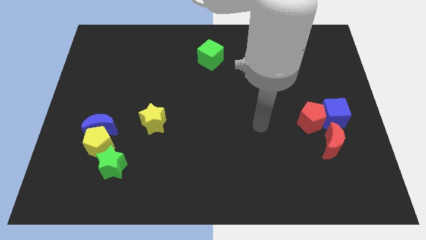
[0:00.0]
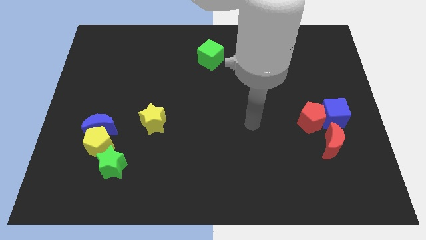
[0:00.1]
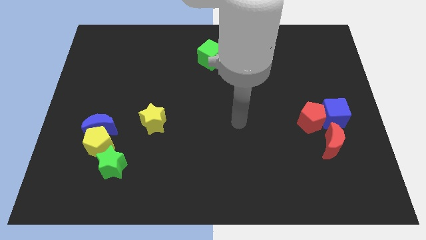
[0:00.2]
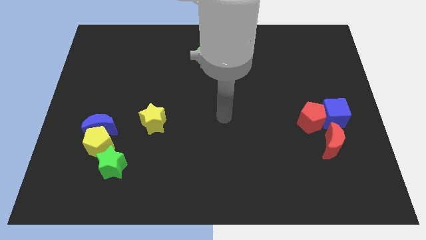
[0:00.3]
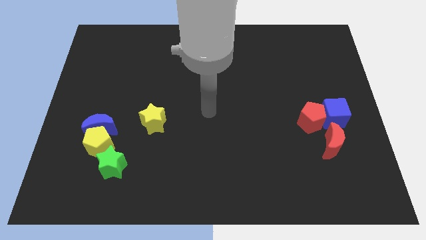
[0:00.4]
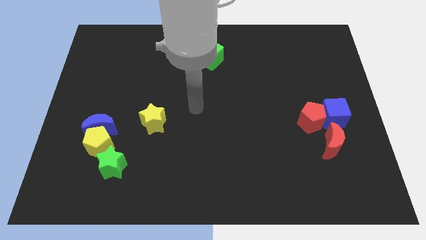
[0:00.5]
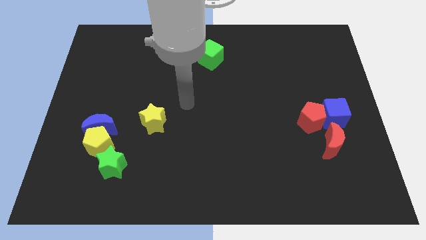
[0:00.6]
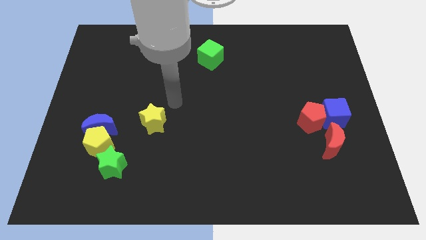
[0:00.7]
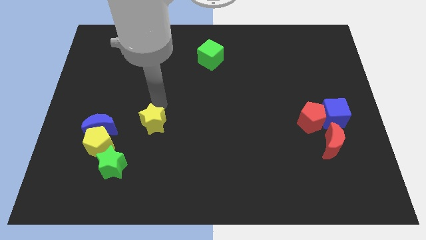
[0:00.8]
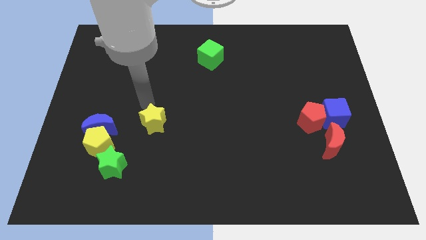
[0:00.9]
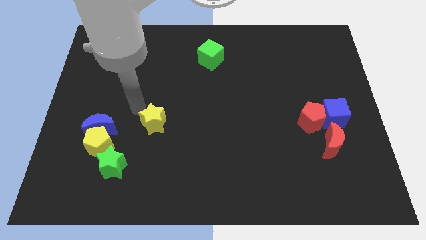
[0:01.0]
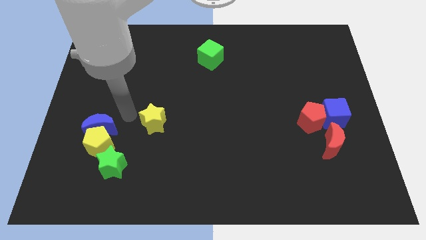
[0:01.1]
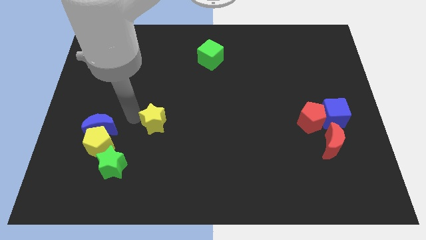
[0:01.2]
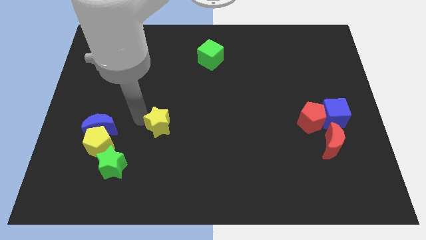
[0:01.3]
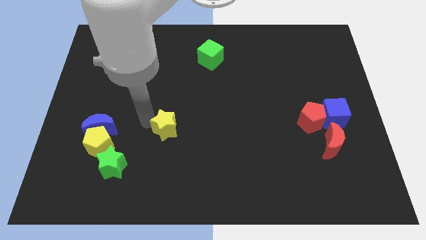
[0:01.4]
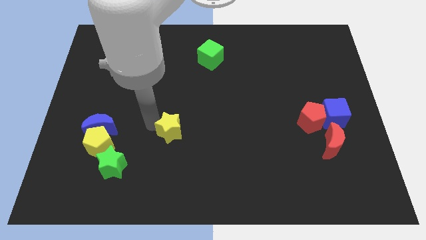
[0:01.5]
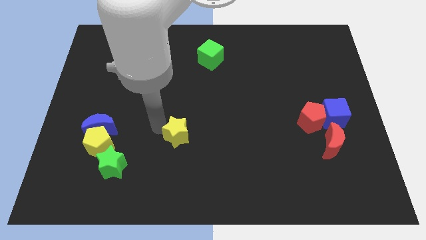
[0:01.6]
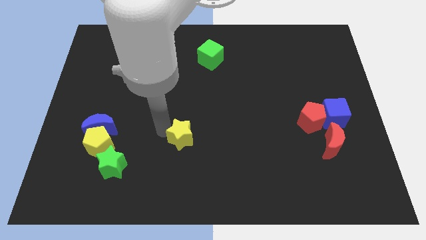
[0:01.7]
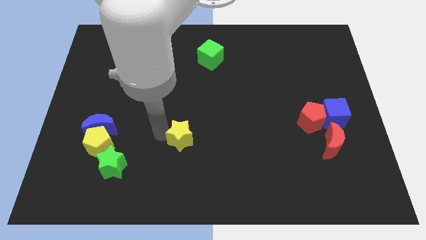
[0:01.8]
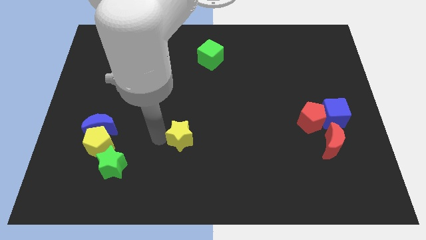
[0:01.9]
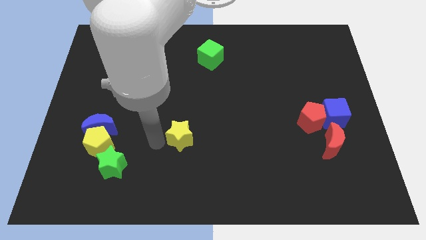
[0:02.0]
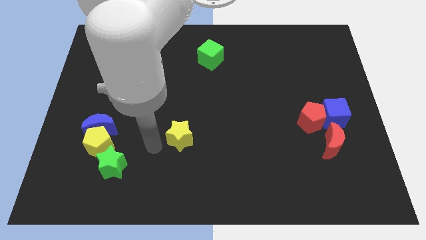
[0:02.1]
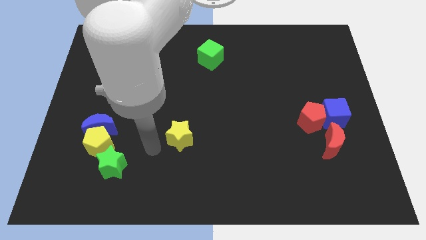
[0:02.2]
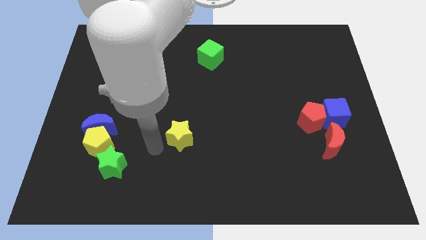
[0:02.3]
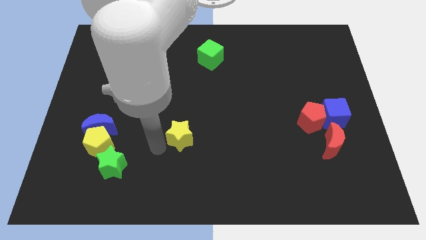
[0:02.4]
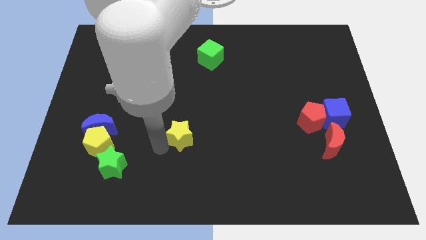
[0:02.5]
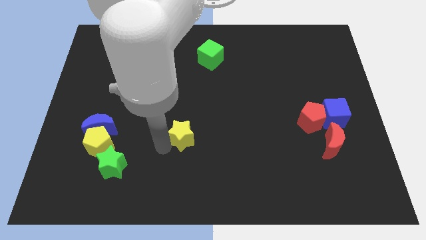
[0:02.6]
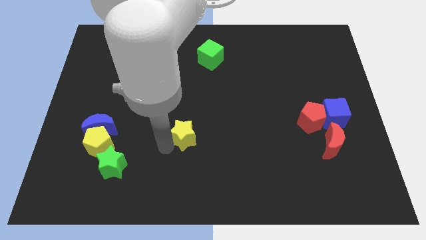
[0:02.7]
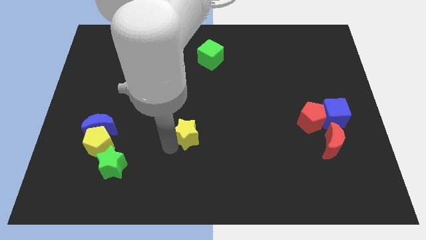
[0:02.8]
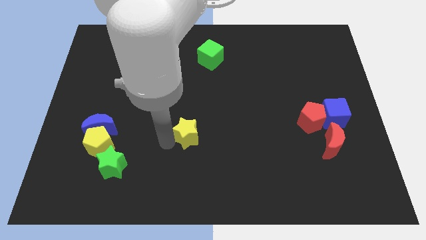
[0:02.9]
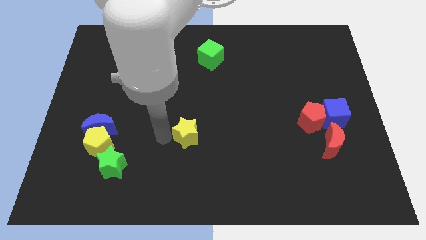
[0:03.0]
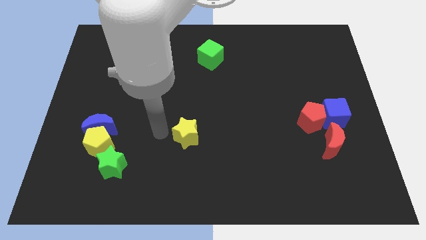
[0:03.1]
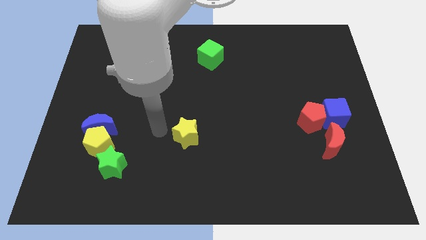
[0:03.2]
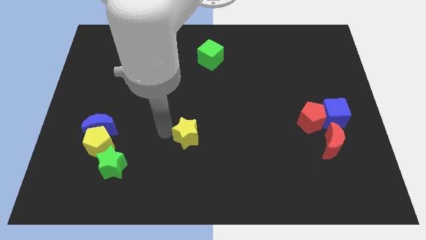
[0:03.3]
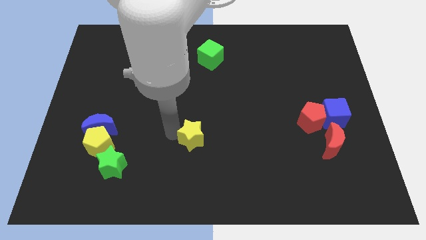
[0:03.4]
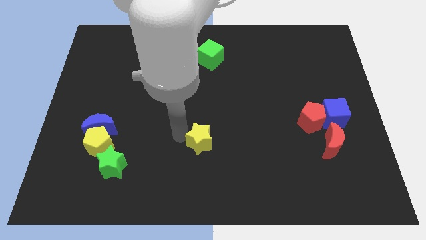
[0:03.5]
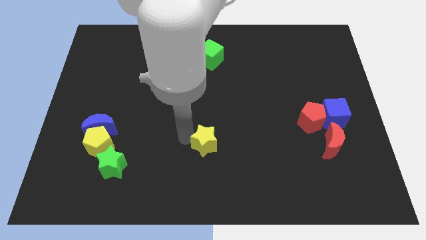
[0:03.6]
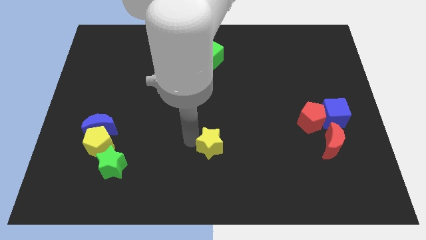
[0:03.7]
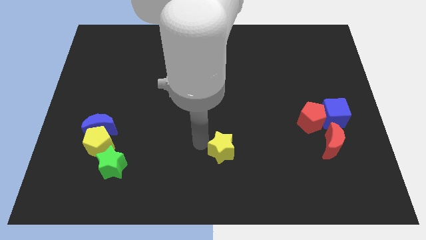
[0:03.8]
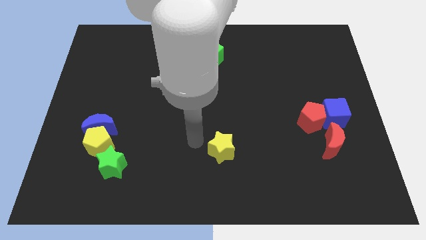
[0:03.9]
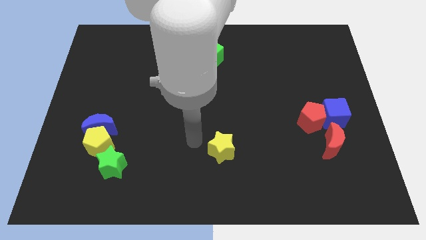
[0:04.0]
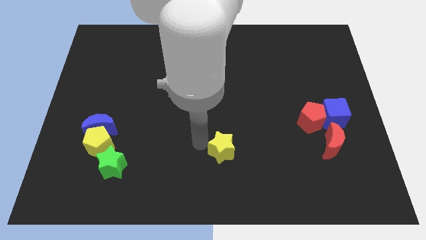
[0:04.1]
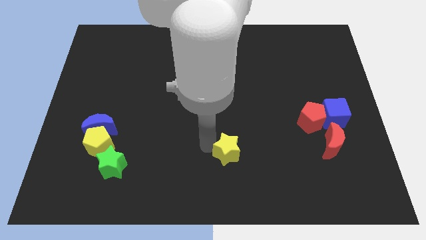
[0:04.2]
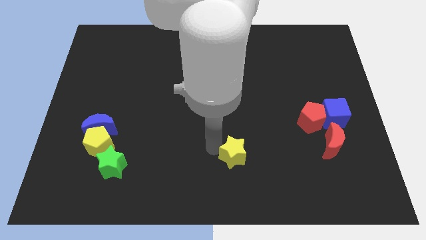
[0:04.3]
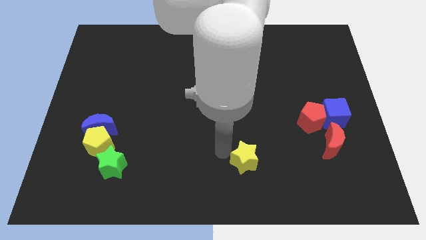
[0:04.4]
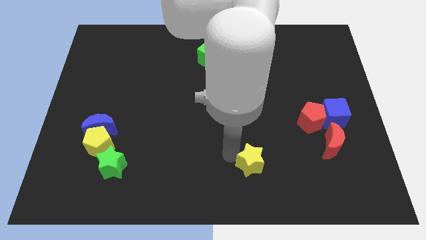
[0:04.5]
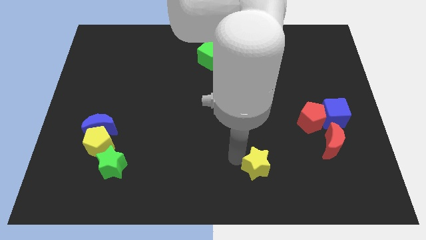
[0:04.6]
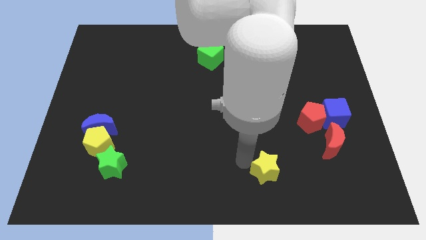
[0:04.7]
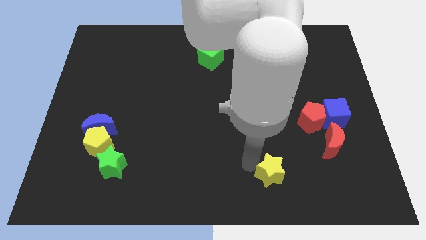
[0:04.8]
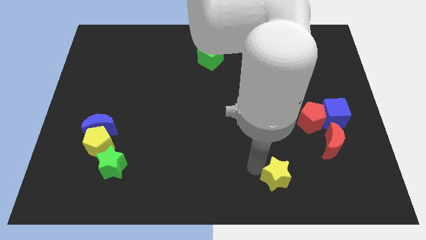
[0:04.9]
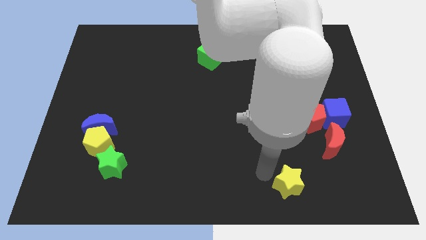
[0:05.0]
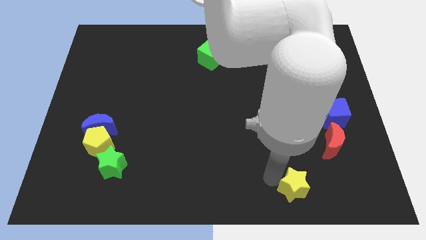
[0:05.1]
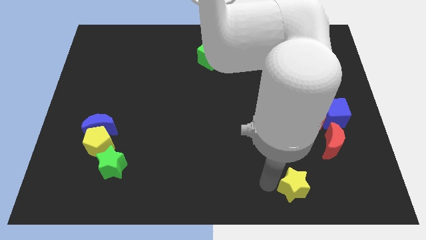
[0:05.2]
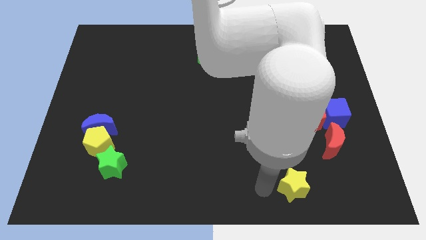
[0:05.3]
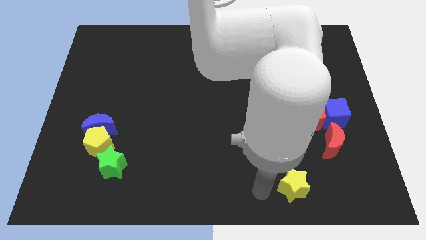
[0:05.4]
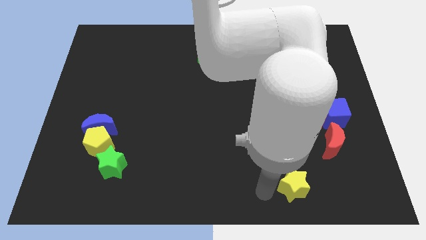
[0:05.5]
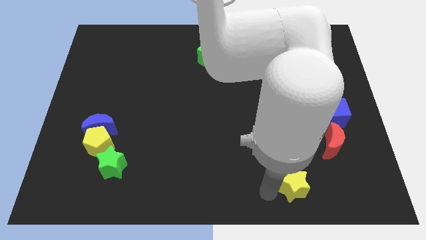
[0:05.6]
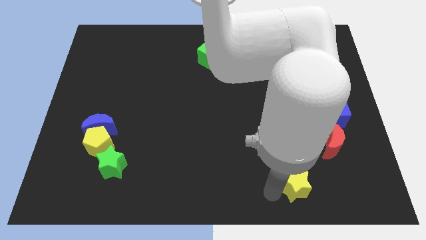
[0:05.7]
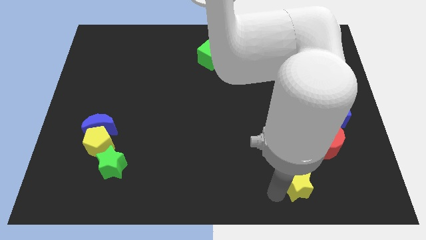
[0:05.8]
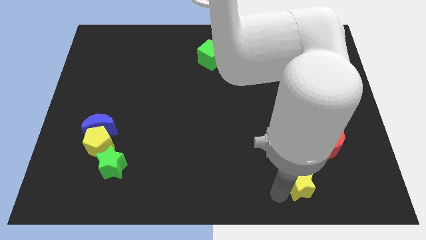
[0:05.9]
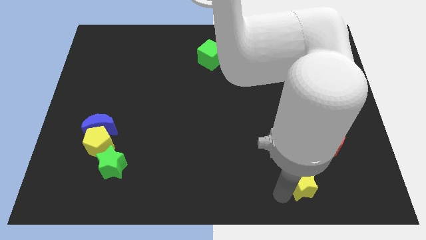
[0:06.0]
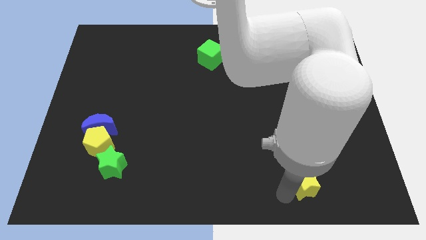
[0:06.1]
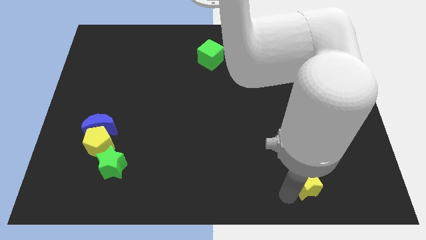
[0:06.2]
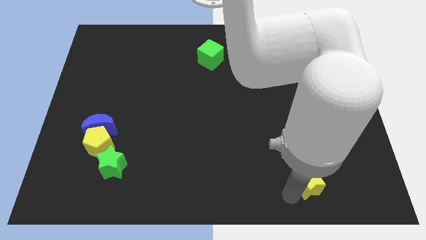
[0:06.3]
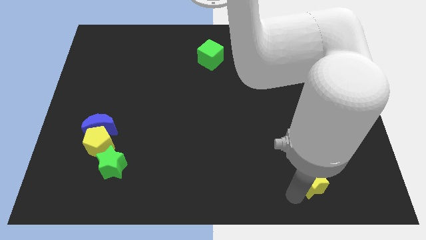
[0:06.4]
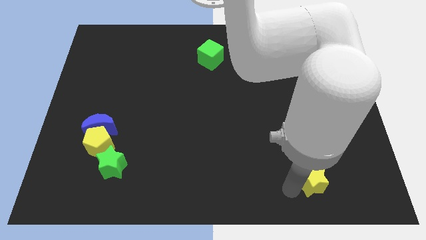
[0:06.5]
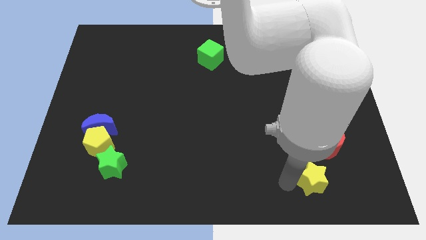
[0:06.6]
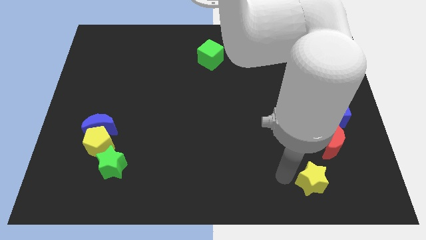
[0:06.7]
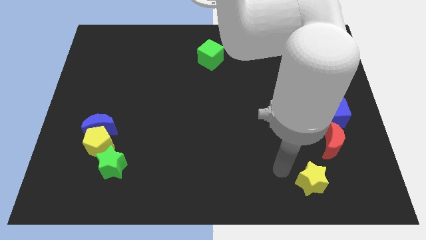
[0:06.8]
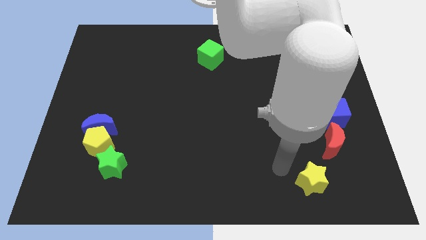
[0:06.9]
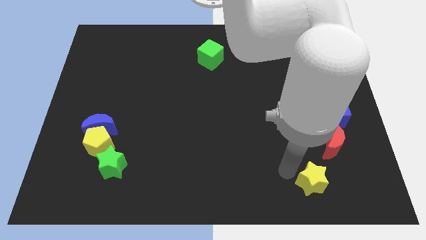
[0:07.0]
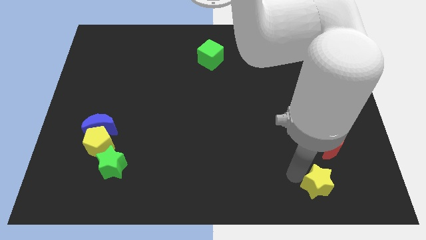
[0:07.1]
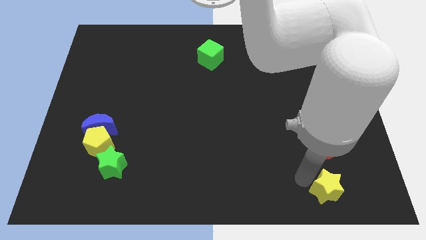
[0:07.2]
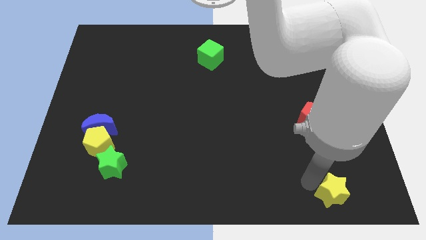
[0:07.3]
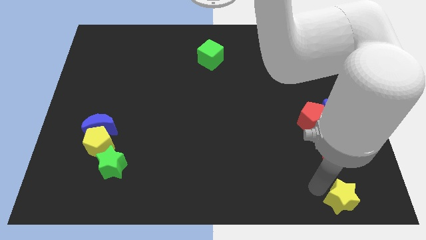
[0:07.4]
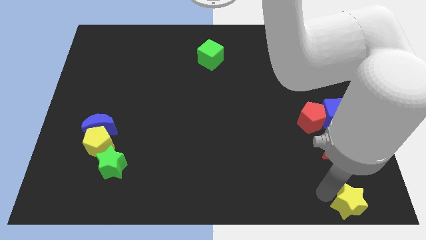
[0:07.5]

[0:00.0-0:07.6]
push the yellow star to the bottom right corner
